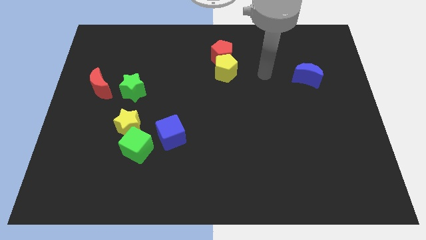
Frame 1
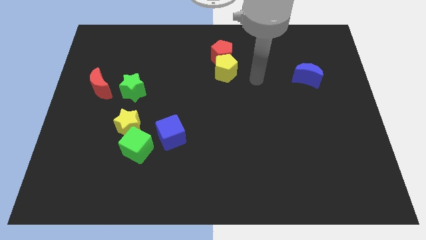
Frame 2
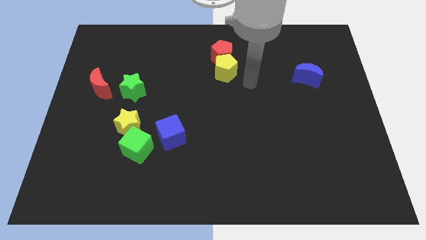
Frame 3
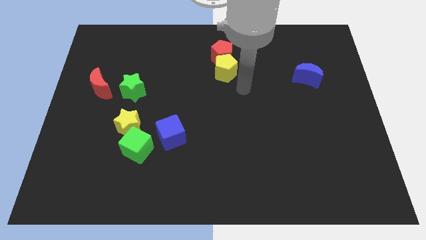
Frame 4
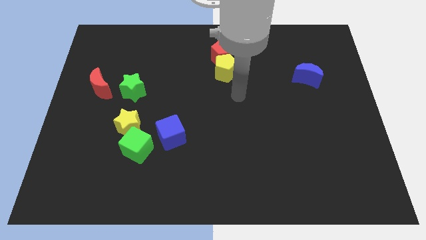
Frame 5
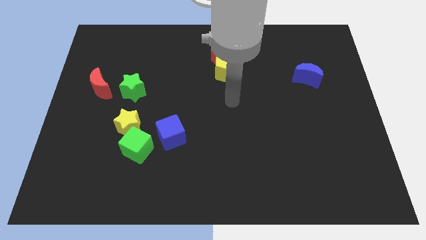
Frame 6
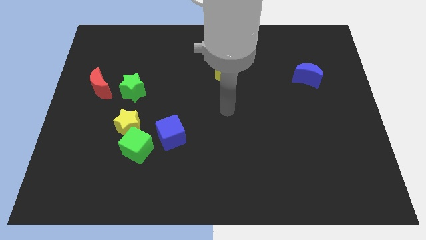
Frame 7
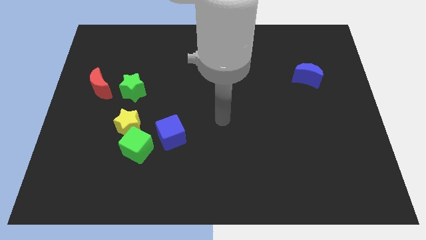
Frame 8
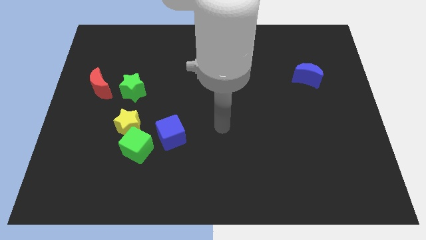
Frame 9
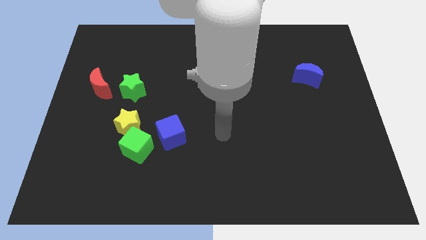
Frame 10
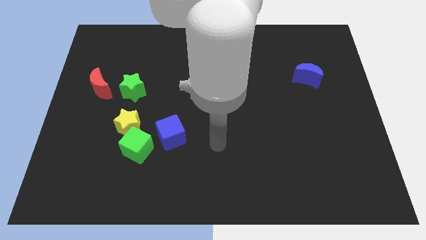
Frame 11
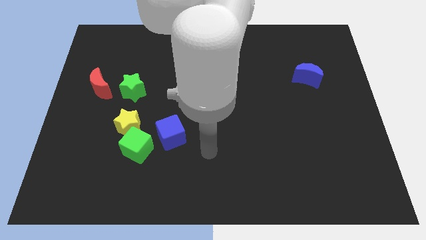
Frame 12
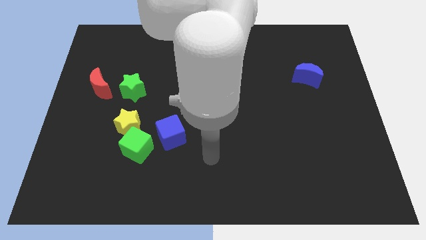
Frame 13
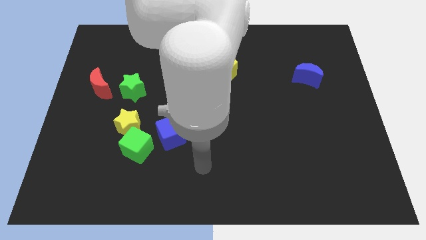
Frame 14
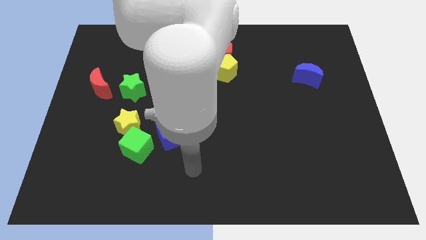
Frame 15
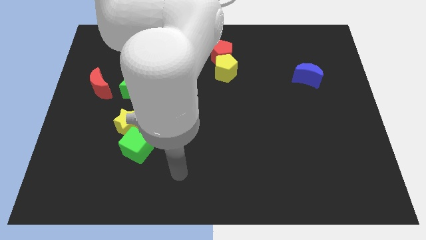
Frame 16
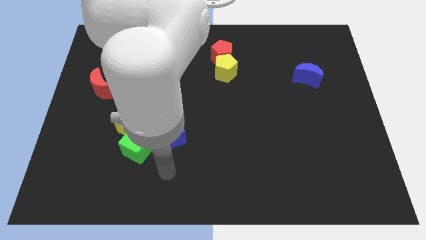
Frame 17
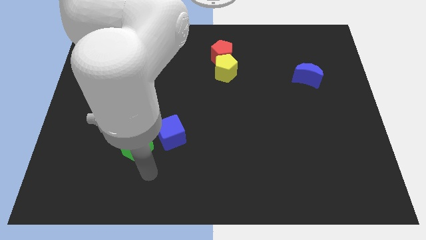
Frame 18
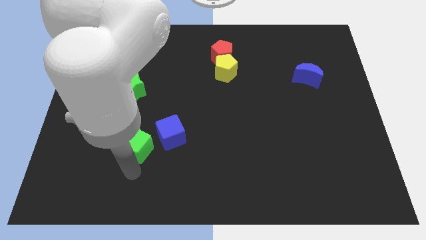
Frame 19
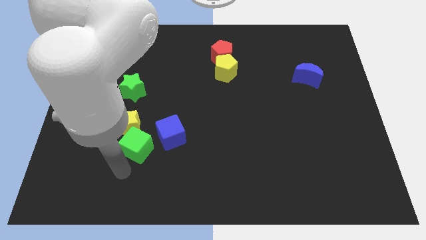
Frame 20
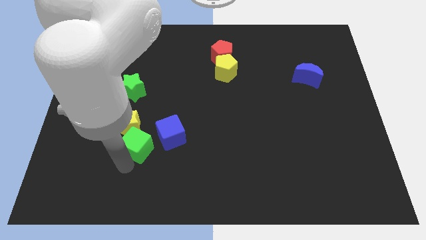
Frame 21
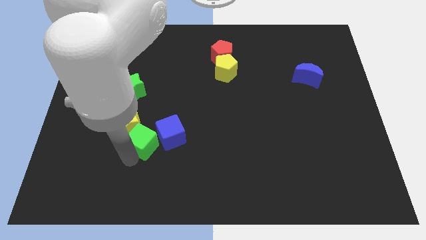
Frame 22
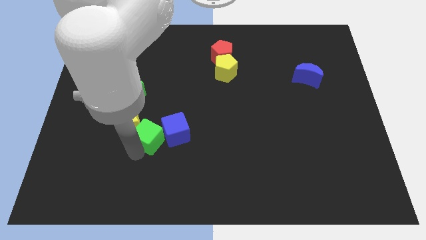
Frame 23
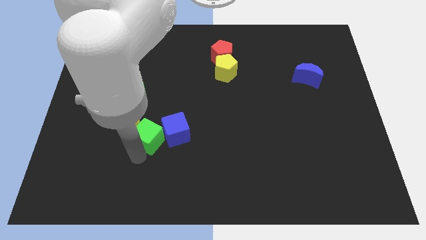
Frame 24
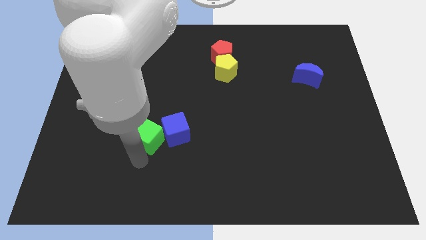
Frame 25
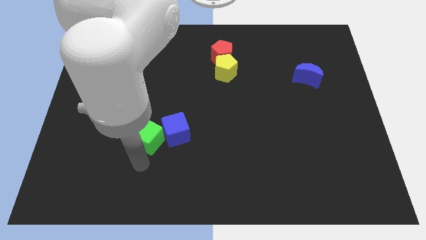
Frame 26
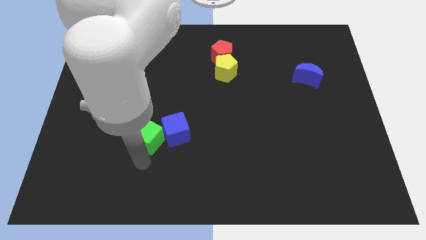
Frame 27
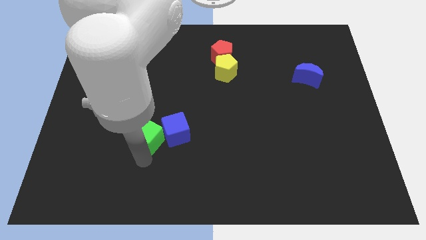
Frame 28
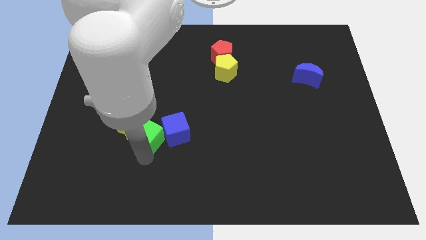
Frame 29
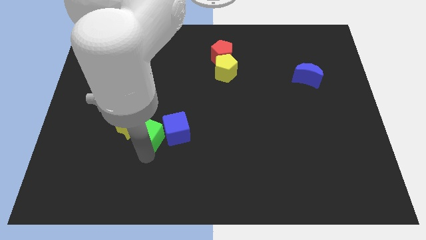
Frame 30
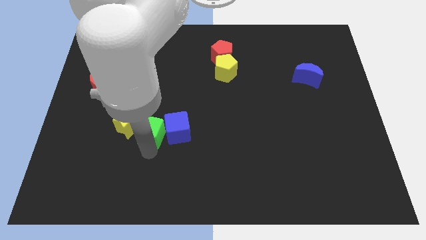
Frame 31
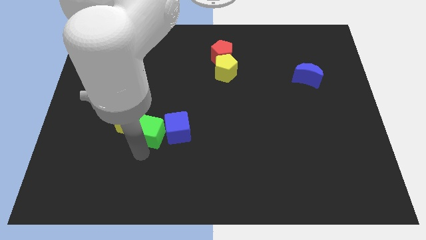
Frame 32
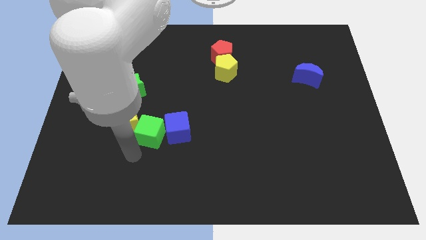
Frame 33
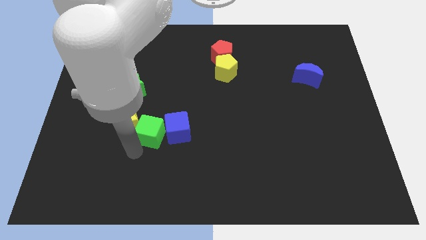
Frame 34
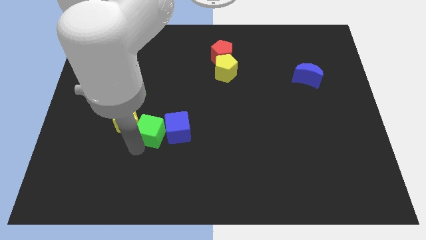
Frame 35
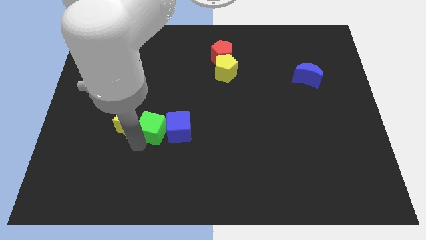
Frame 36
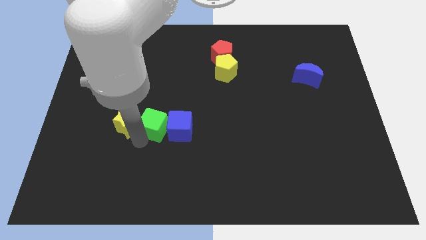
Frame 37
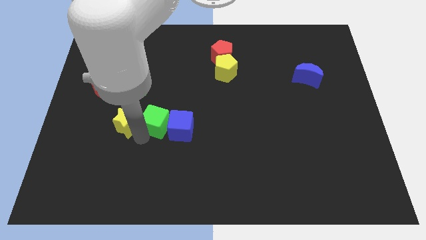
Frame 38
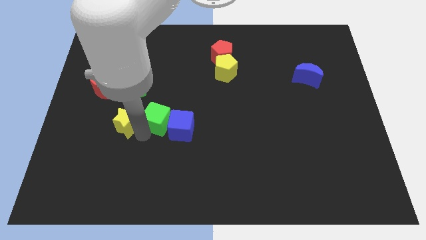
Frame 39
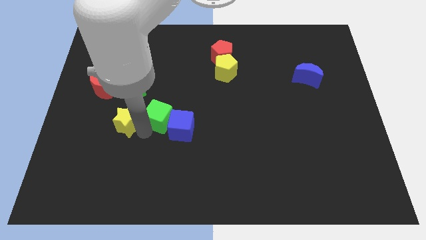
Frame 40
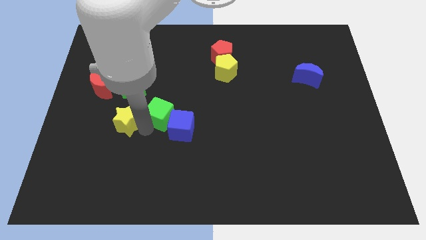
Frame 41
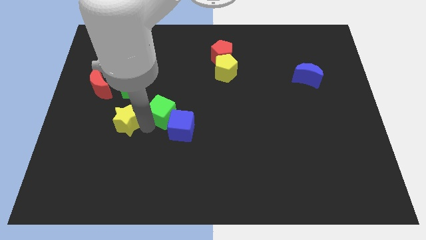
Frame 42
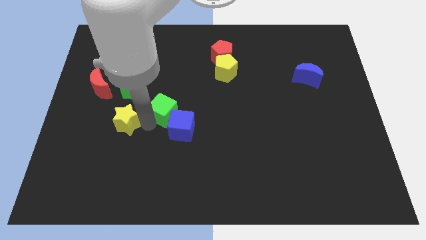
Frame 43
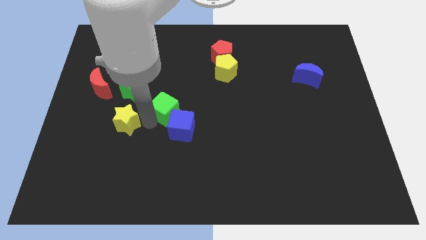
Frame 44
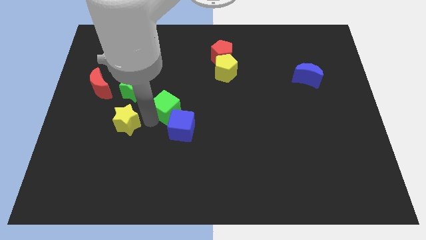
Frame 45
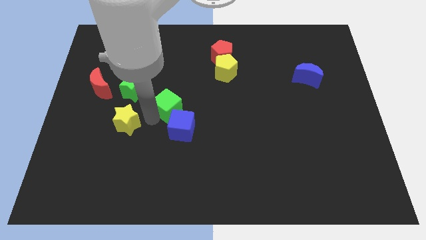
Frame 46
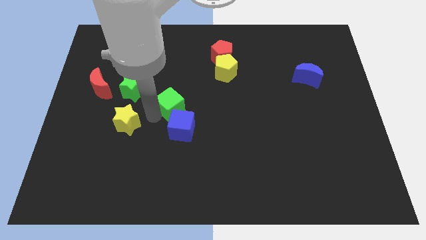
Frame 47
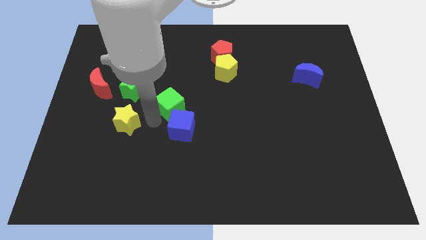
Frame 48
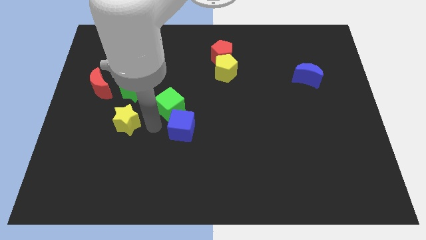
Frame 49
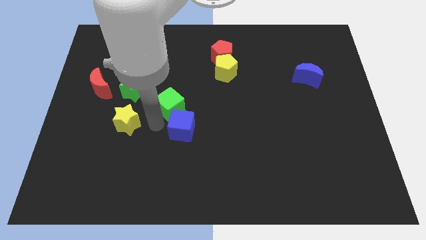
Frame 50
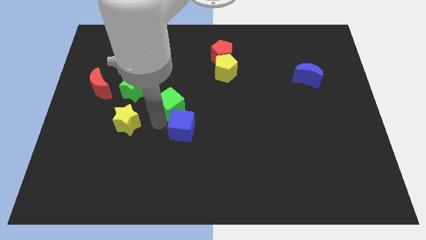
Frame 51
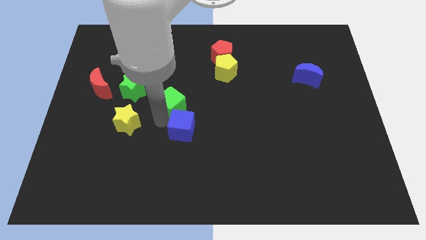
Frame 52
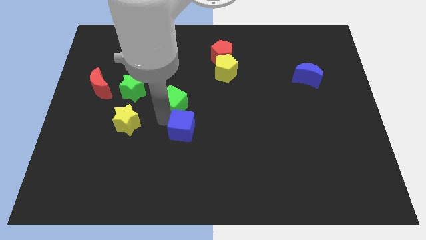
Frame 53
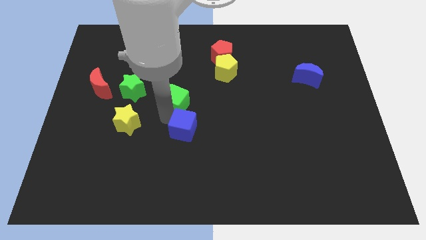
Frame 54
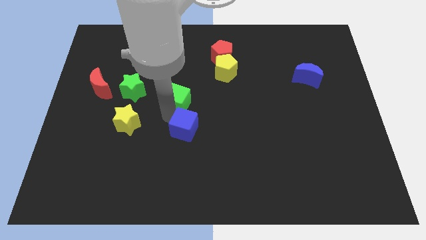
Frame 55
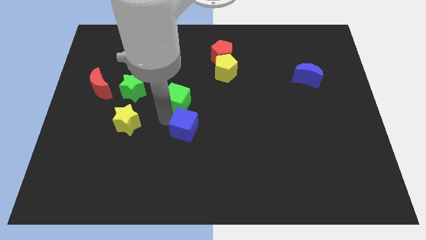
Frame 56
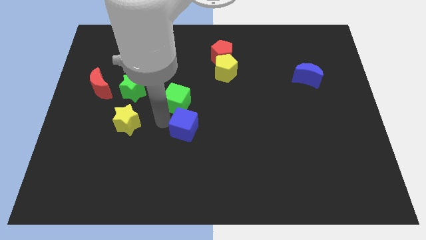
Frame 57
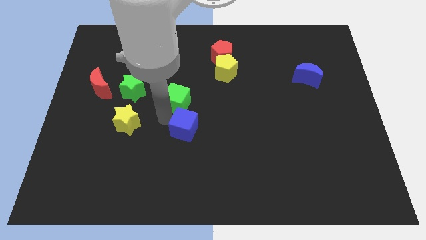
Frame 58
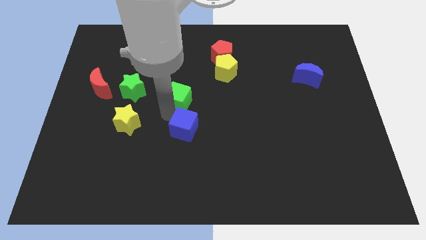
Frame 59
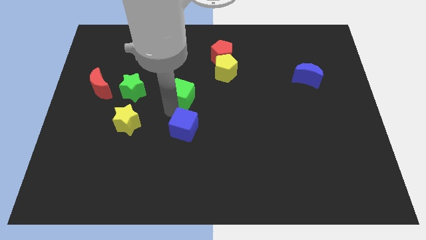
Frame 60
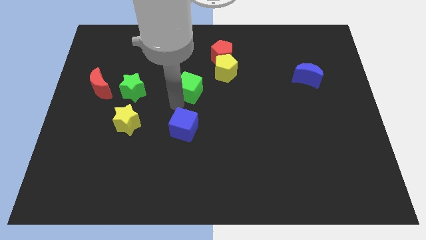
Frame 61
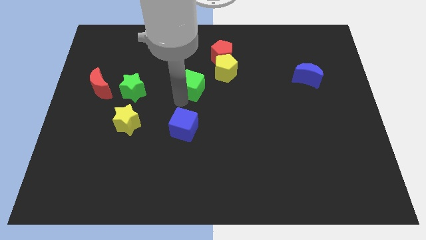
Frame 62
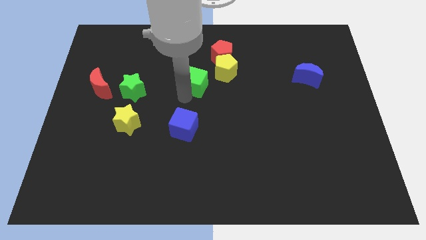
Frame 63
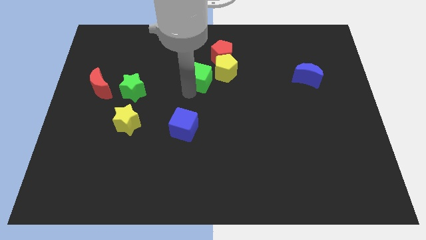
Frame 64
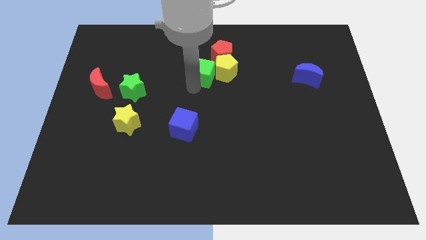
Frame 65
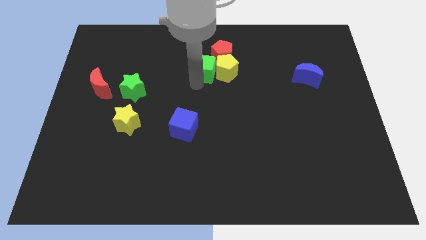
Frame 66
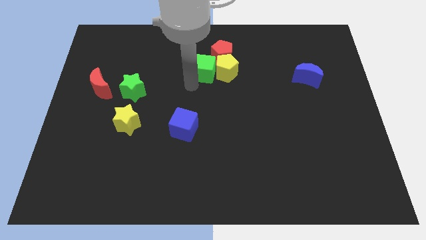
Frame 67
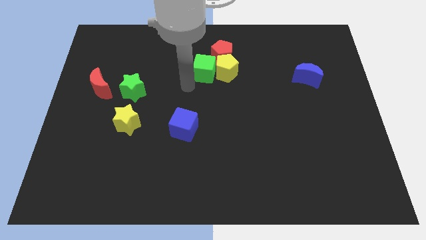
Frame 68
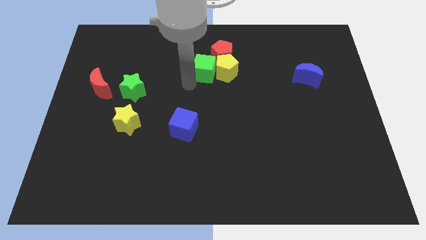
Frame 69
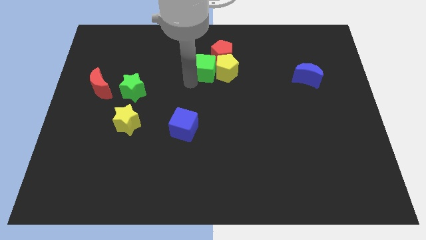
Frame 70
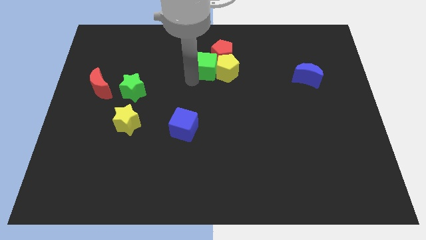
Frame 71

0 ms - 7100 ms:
push the green cube to the red pentagon
